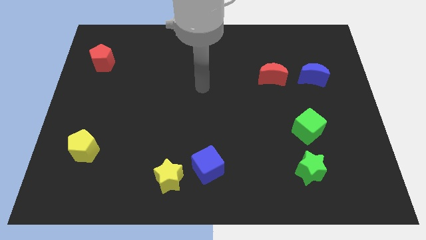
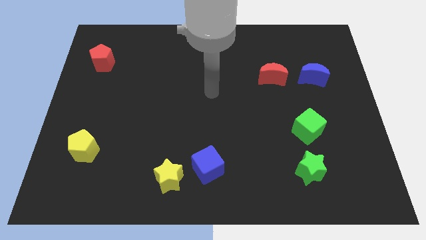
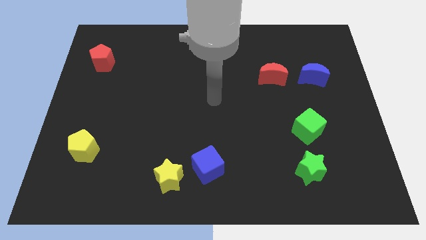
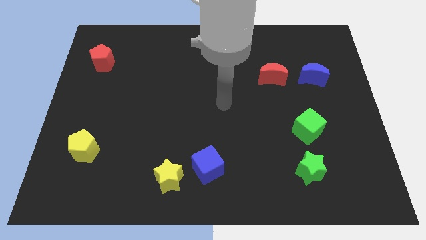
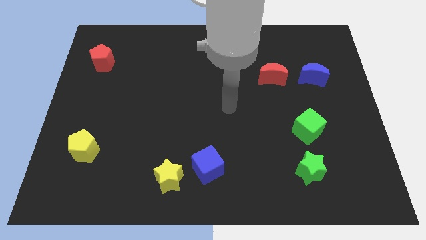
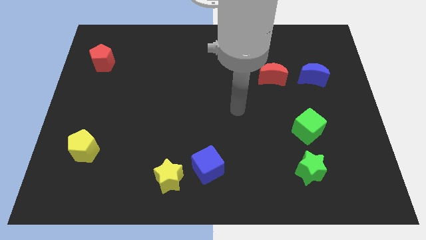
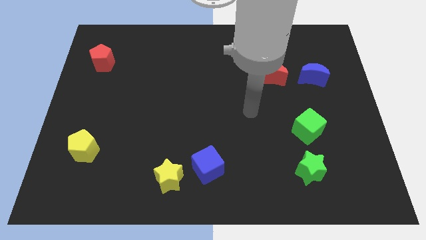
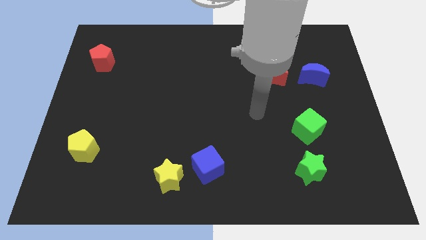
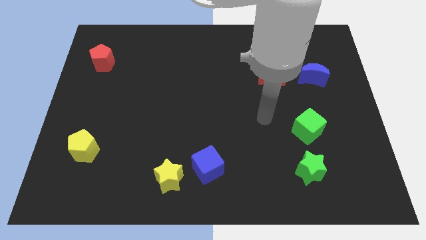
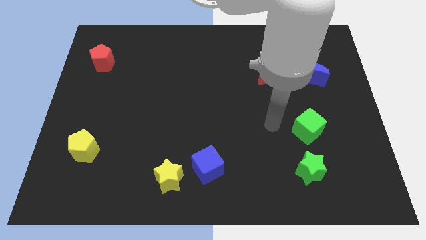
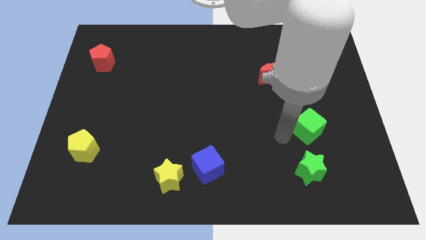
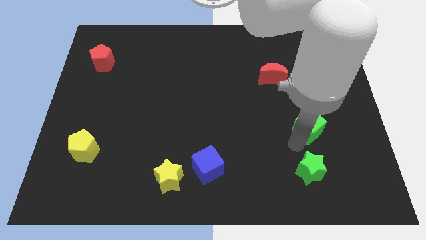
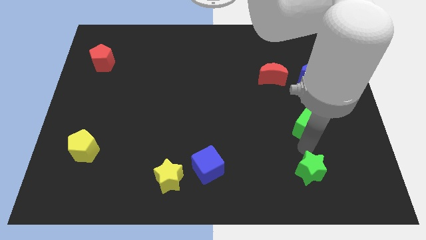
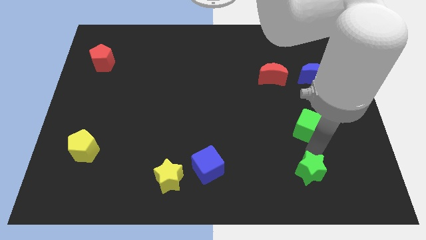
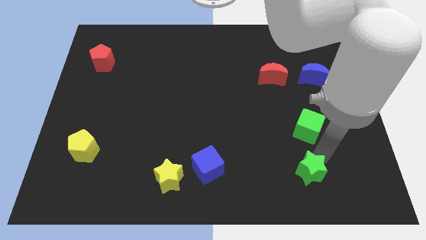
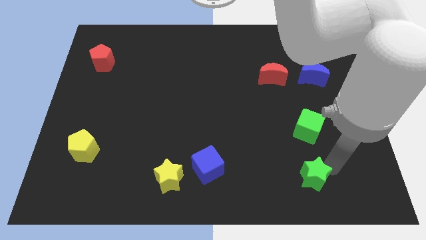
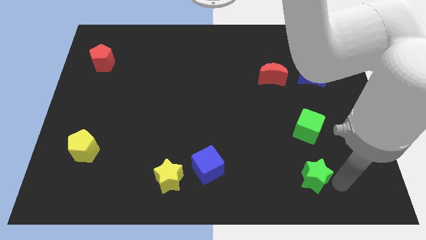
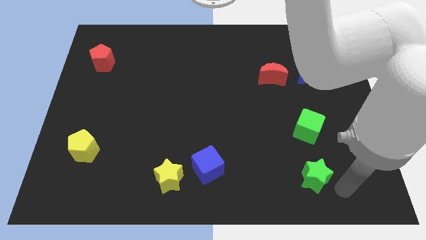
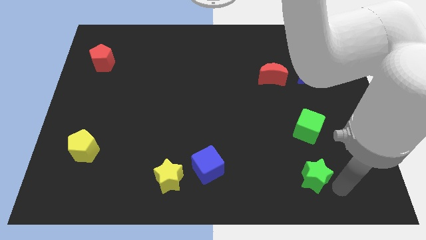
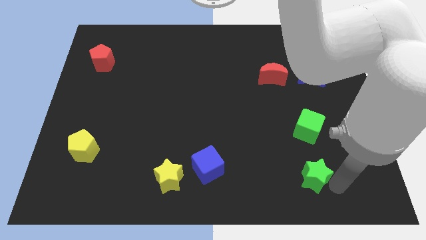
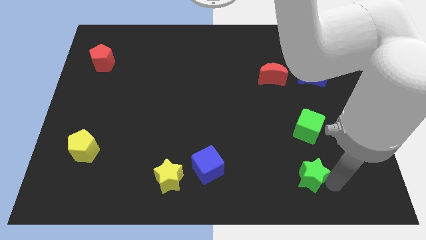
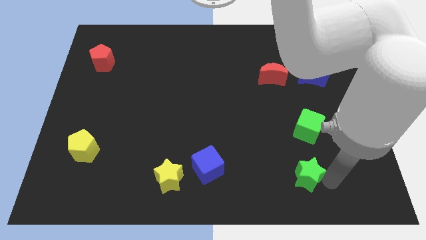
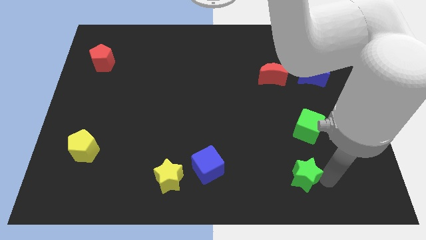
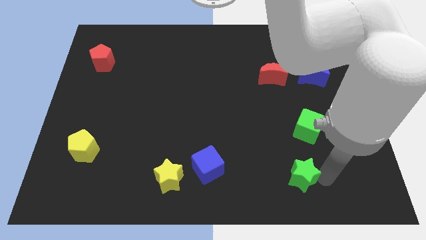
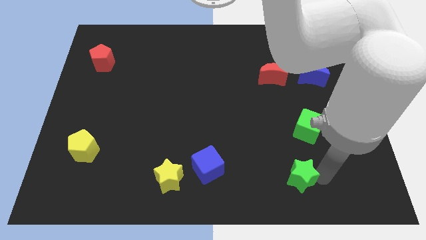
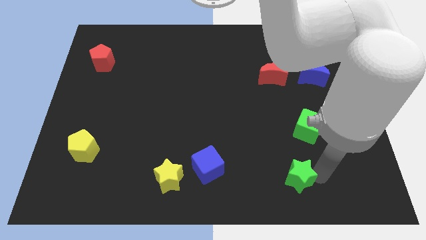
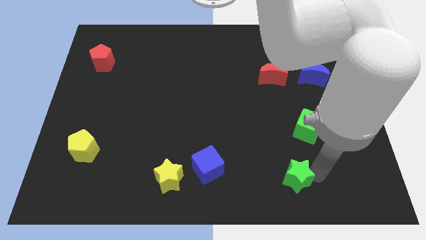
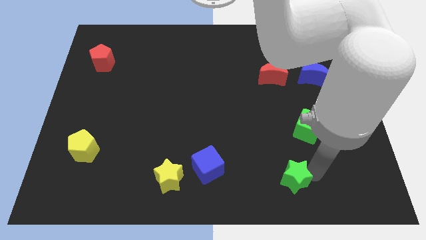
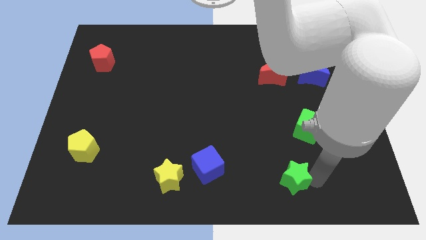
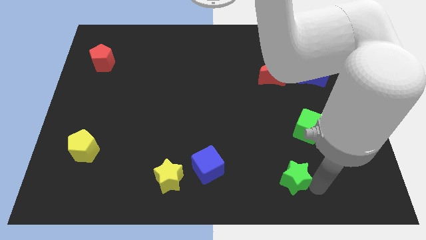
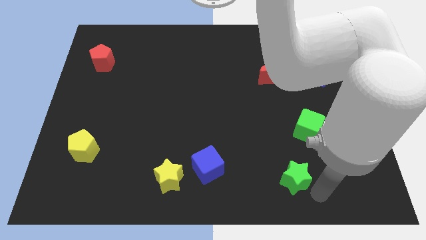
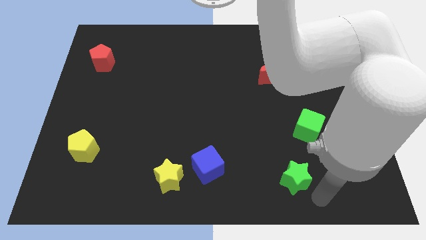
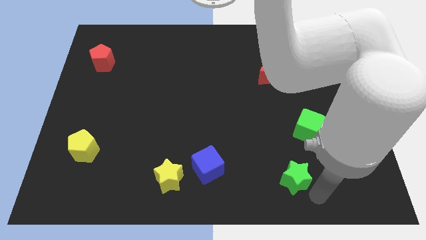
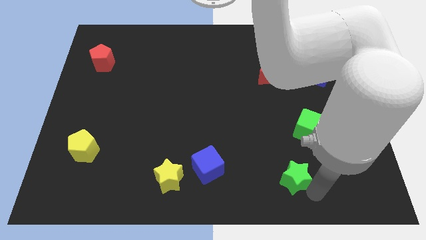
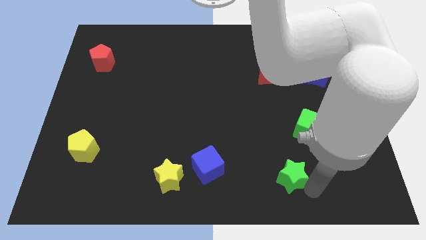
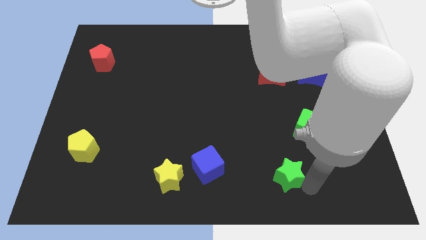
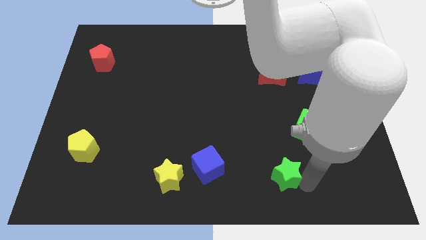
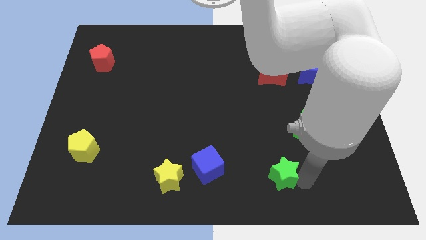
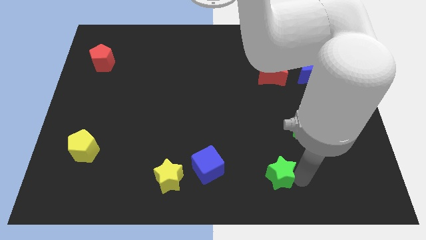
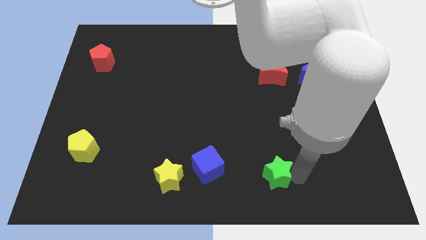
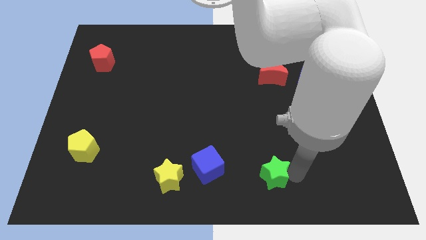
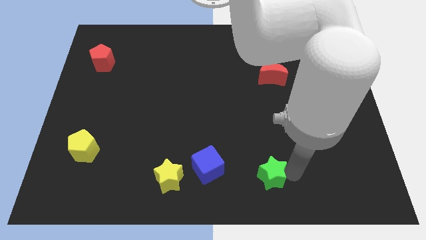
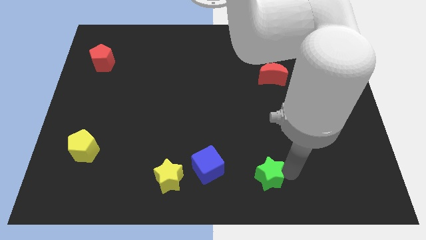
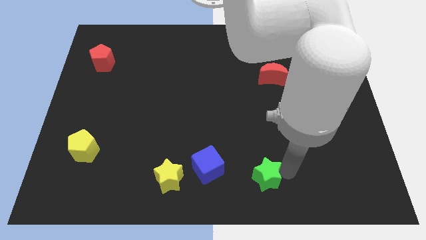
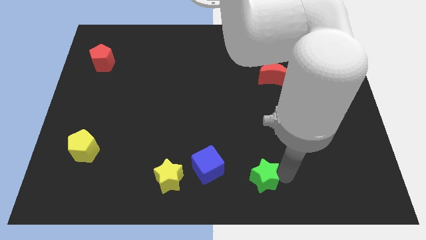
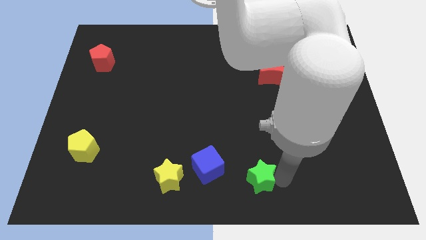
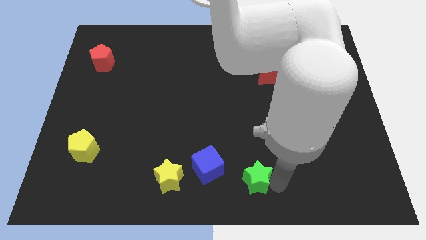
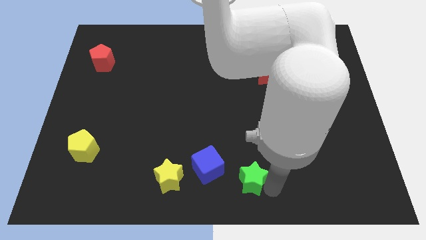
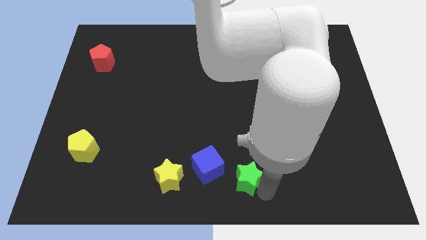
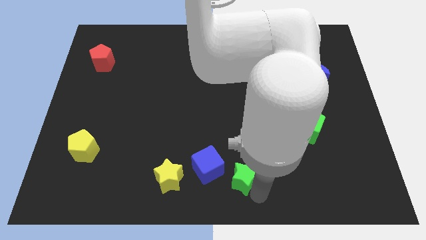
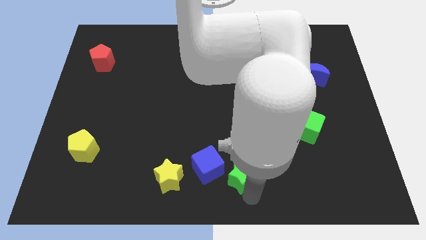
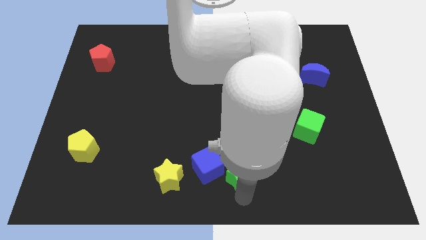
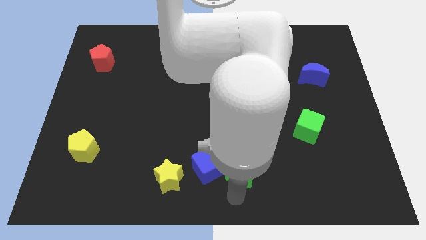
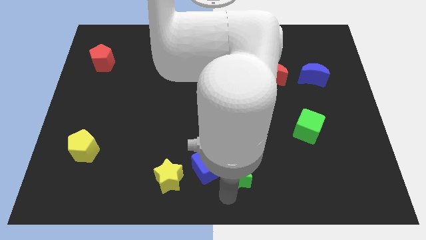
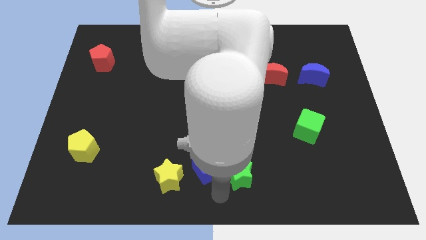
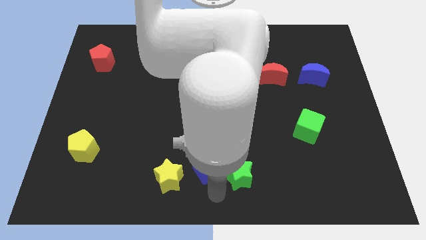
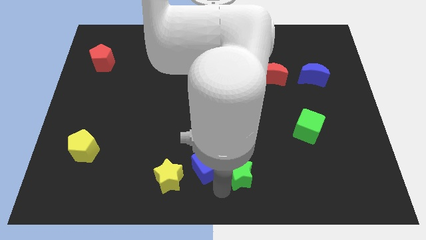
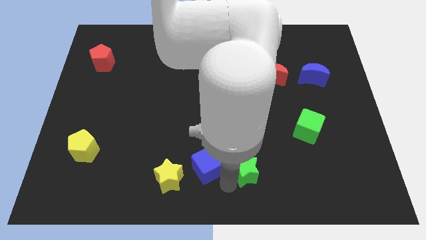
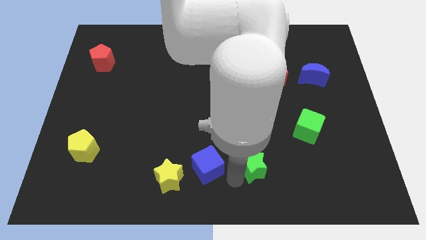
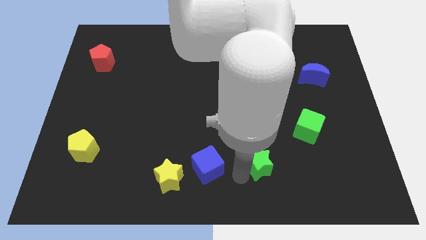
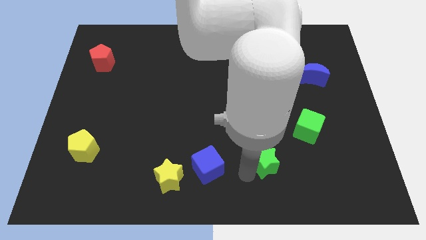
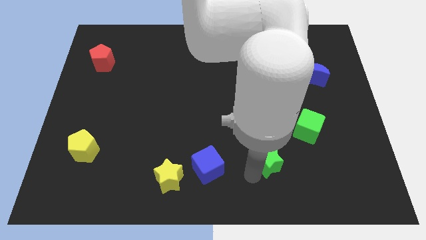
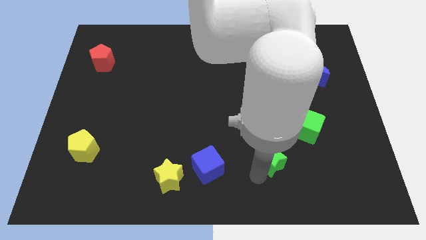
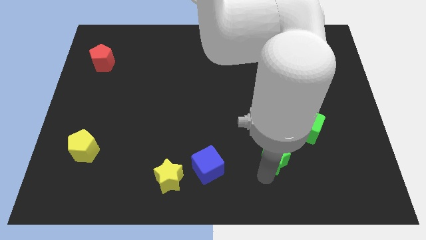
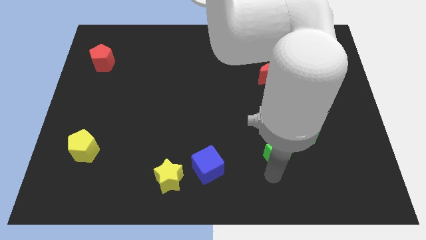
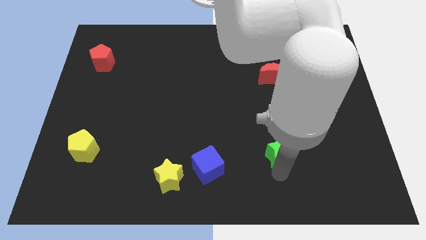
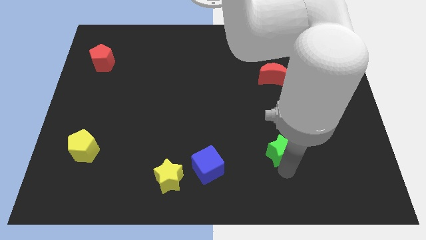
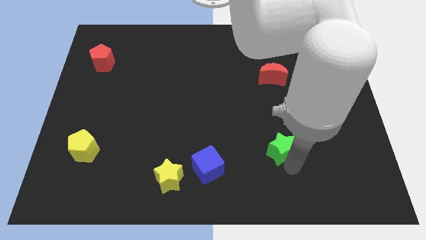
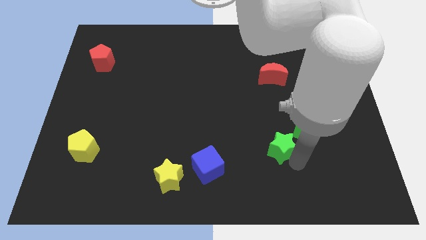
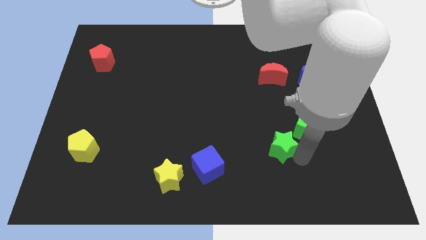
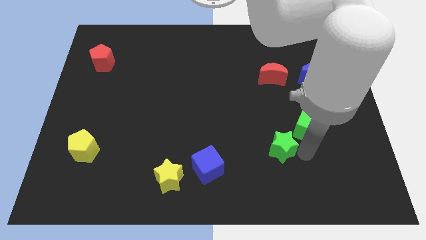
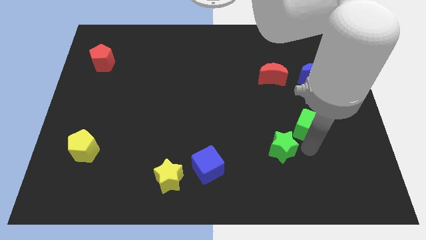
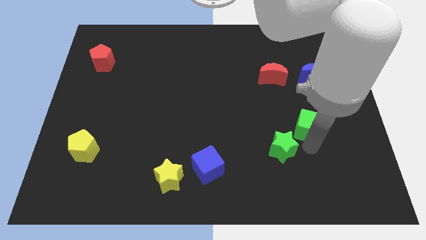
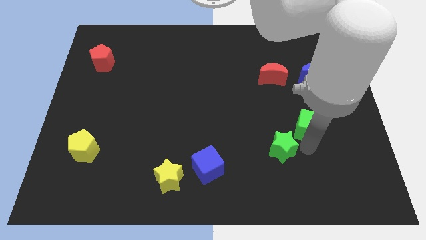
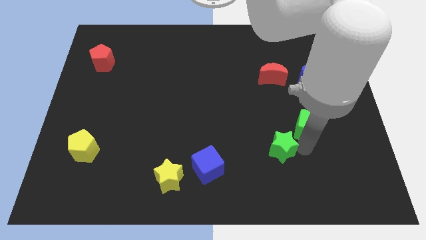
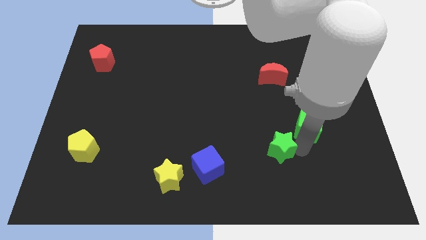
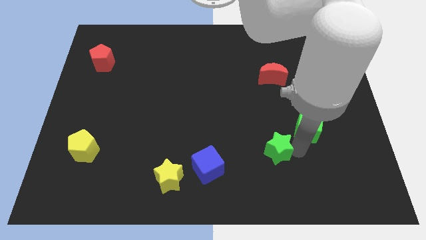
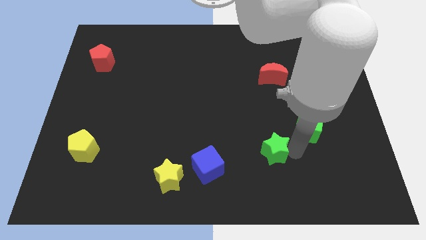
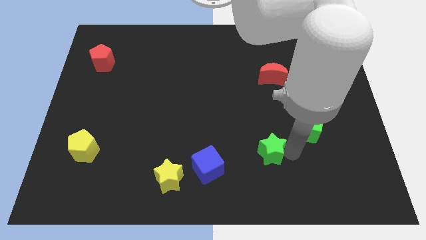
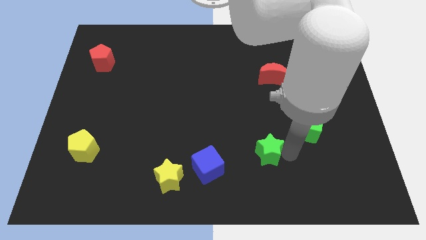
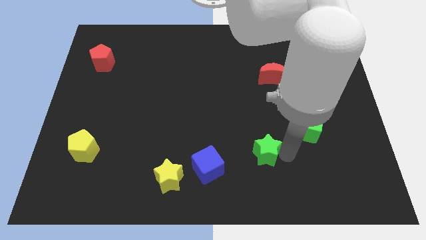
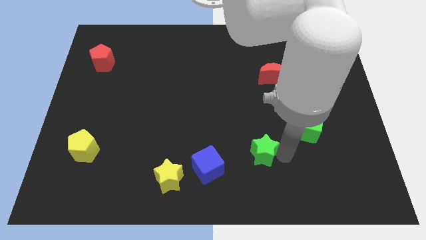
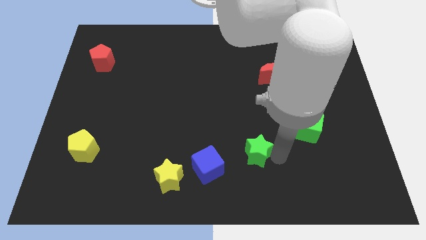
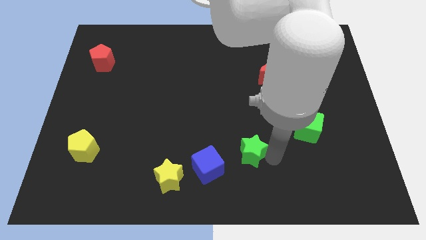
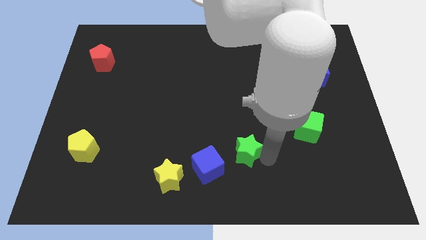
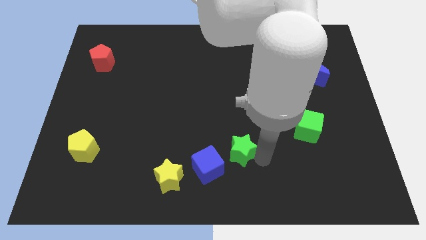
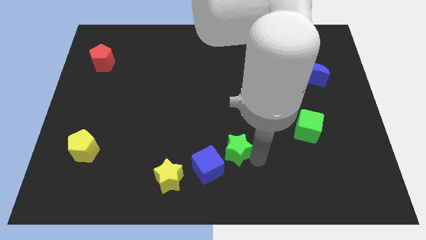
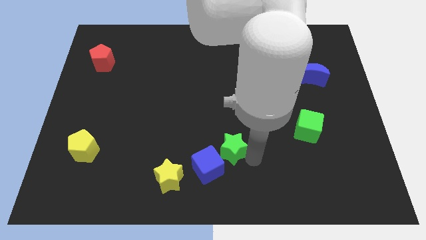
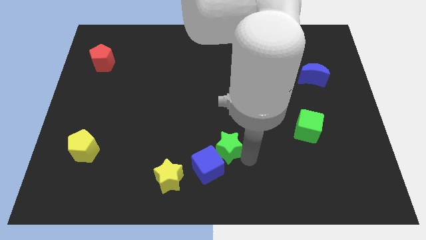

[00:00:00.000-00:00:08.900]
push the green star to the top of the blue cube
